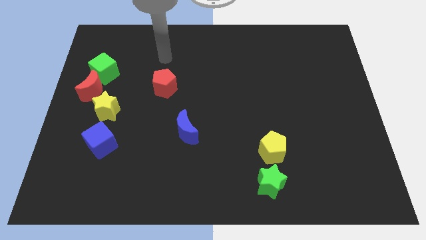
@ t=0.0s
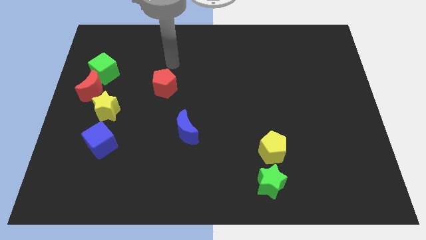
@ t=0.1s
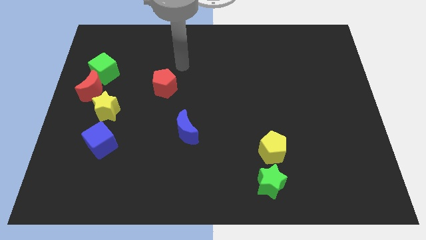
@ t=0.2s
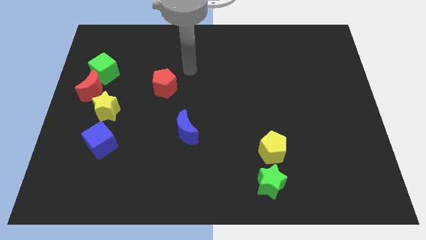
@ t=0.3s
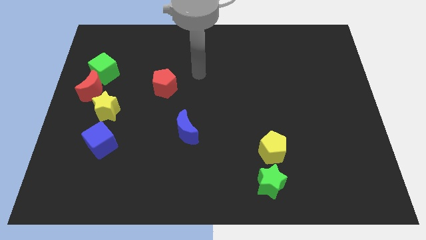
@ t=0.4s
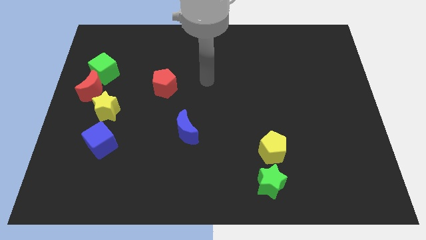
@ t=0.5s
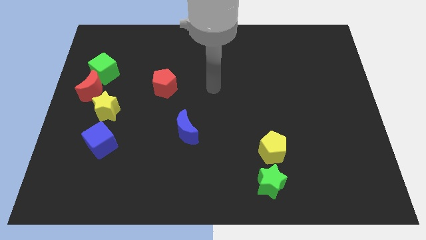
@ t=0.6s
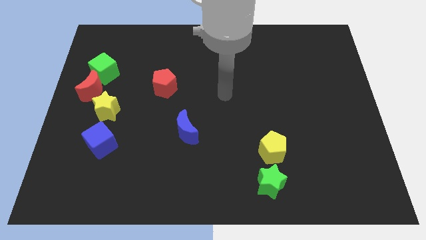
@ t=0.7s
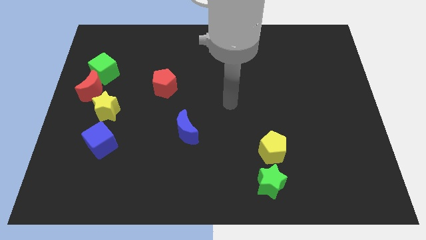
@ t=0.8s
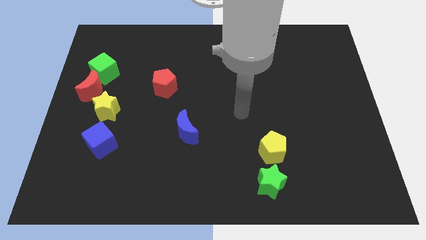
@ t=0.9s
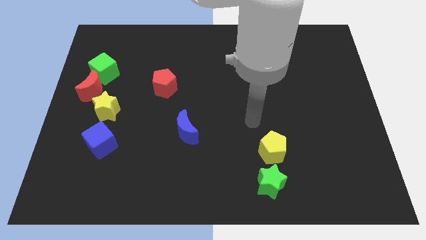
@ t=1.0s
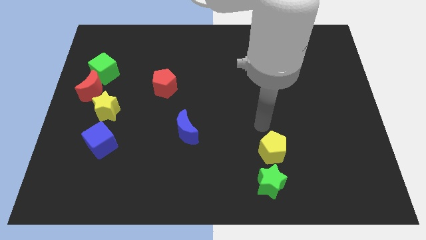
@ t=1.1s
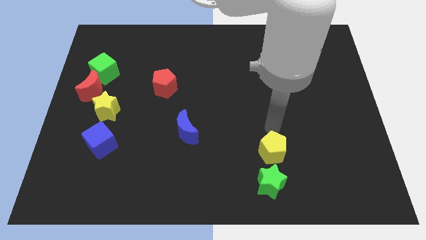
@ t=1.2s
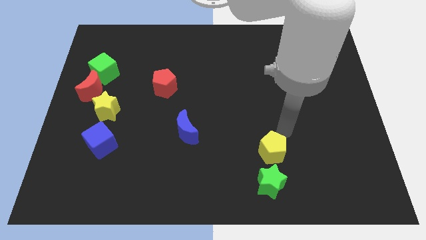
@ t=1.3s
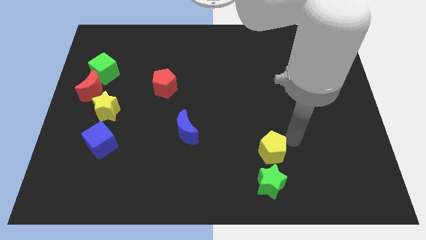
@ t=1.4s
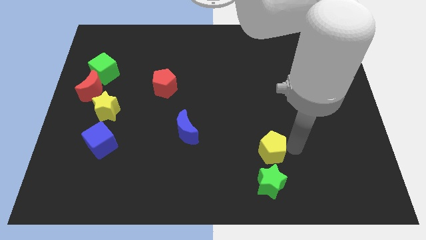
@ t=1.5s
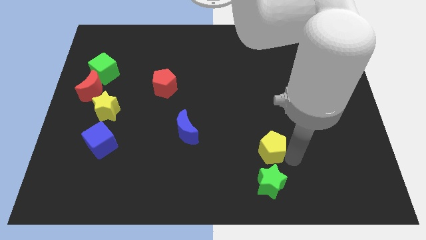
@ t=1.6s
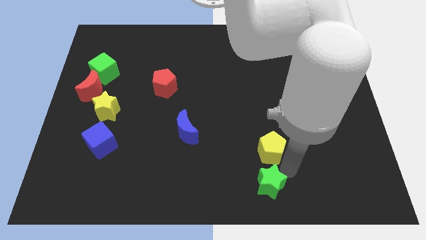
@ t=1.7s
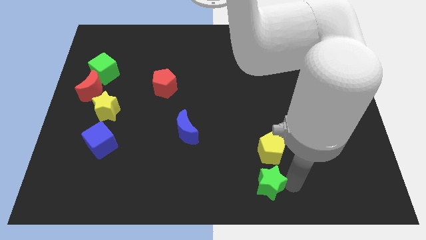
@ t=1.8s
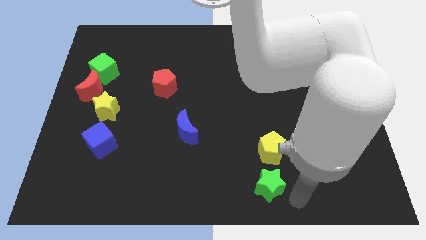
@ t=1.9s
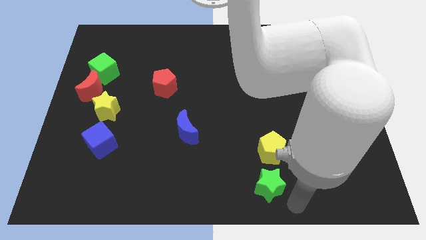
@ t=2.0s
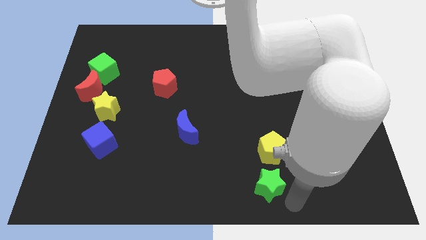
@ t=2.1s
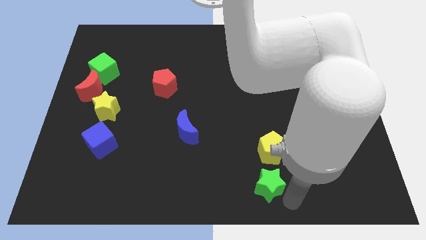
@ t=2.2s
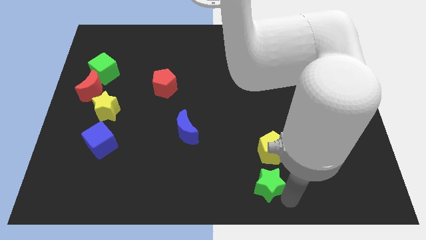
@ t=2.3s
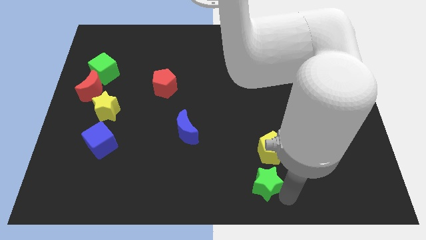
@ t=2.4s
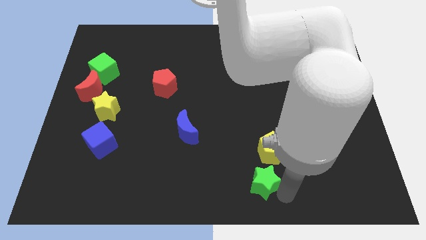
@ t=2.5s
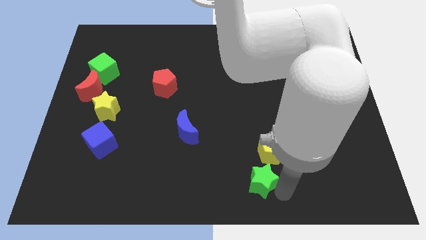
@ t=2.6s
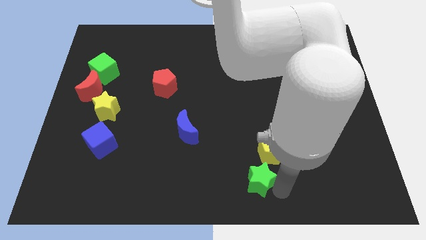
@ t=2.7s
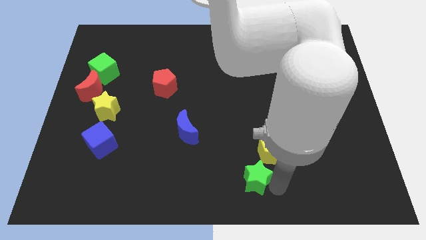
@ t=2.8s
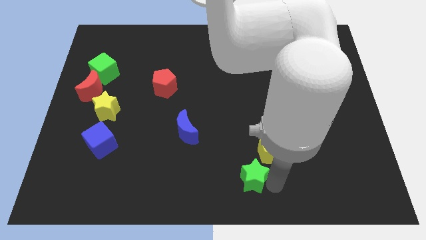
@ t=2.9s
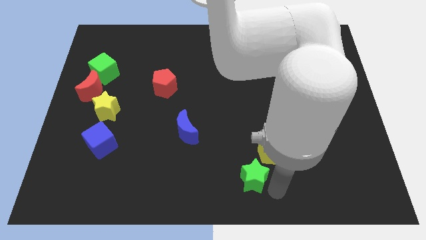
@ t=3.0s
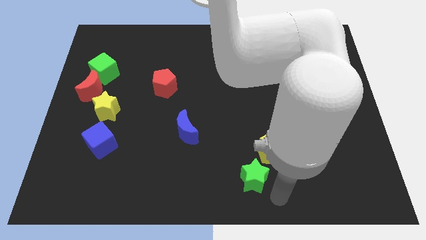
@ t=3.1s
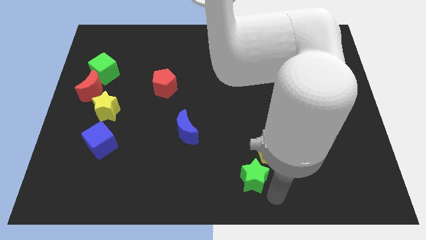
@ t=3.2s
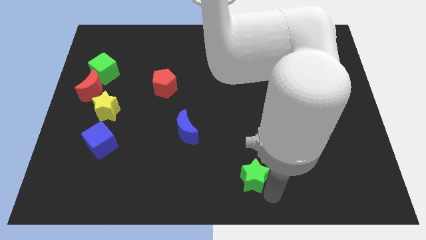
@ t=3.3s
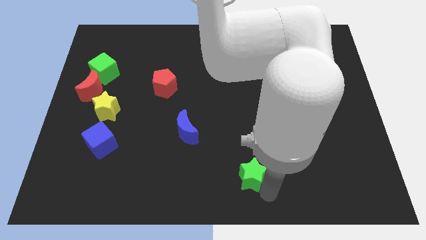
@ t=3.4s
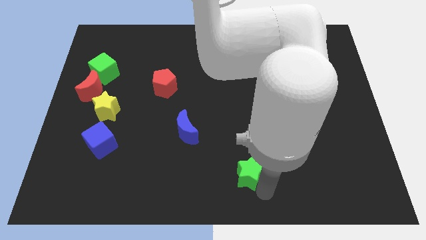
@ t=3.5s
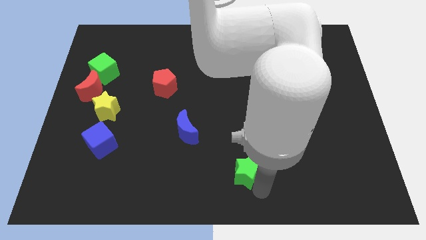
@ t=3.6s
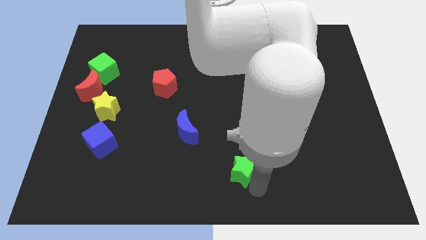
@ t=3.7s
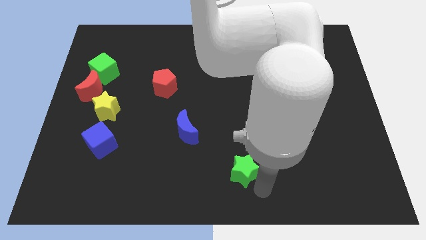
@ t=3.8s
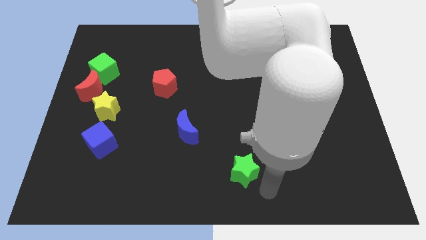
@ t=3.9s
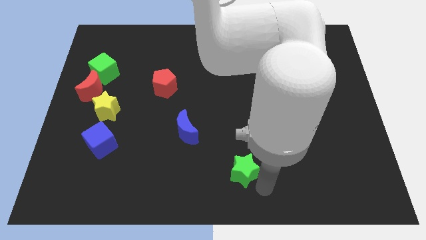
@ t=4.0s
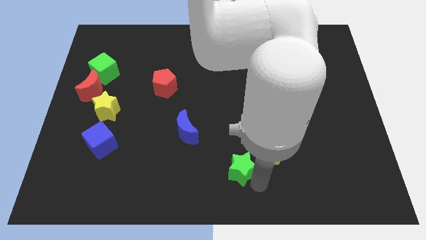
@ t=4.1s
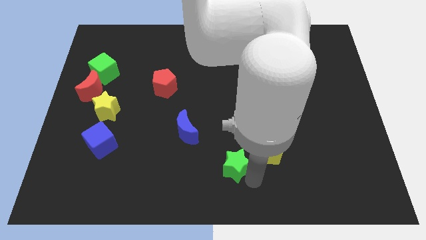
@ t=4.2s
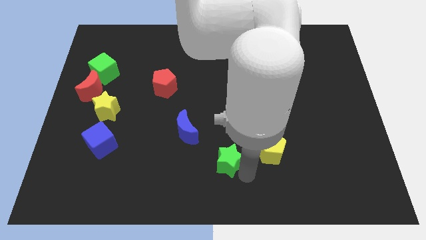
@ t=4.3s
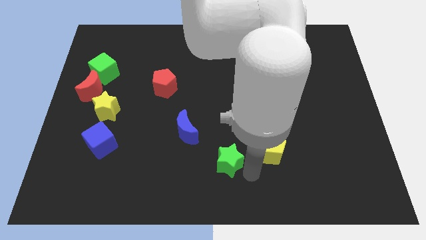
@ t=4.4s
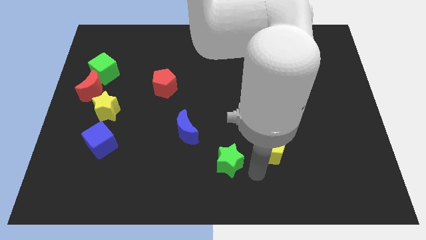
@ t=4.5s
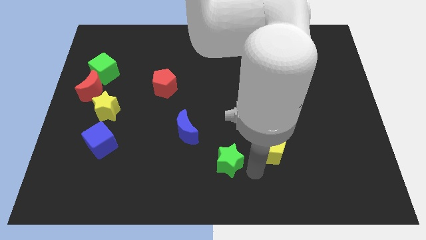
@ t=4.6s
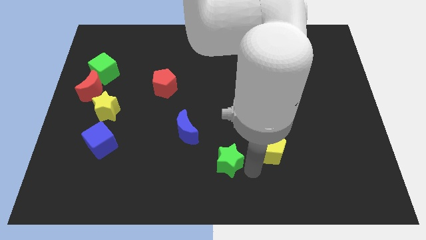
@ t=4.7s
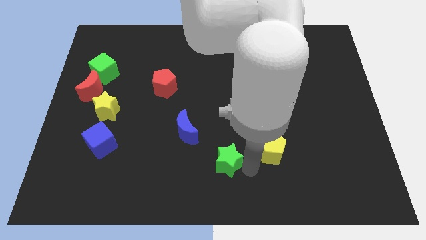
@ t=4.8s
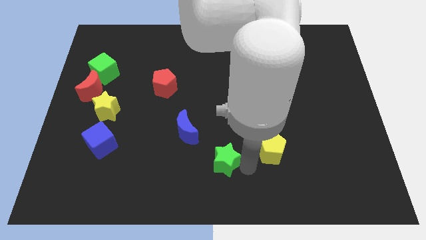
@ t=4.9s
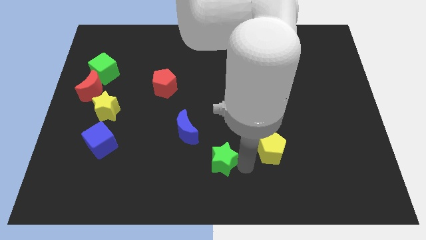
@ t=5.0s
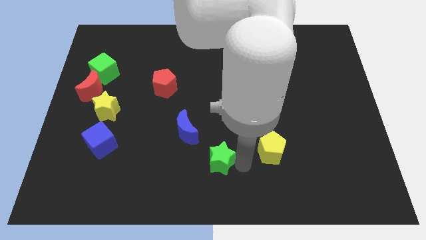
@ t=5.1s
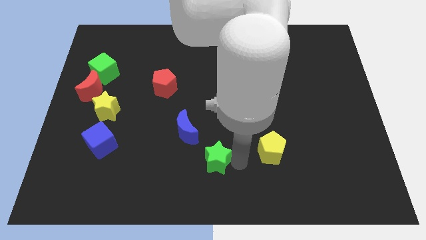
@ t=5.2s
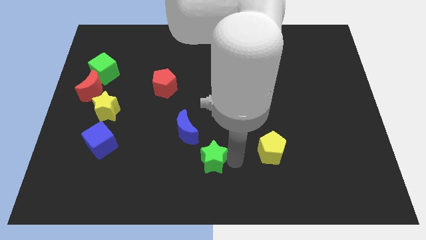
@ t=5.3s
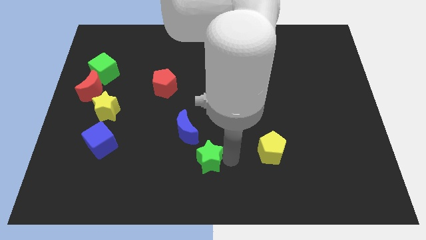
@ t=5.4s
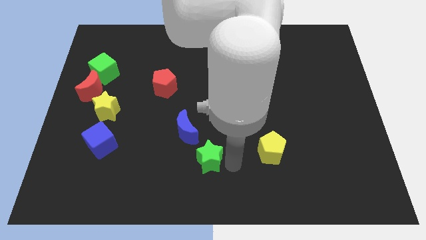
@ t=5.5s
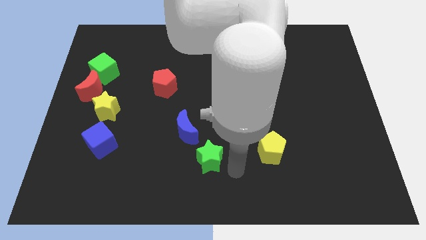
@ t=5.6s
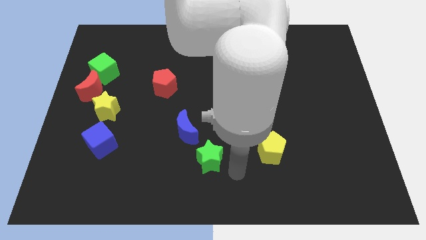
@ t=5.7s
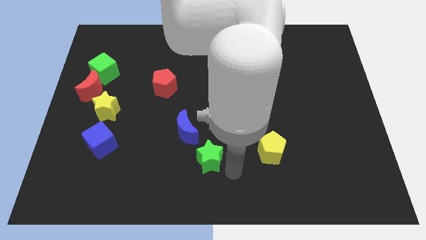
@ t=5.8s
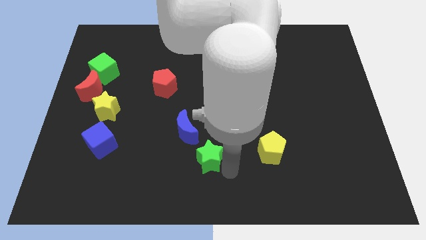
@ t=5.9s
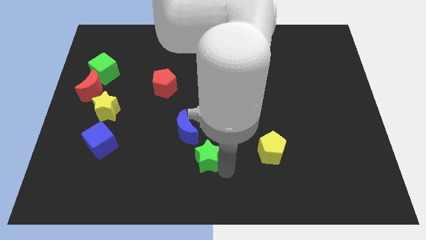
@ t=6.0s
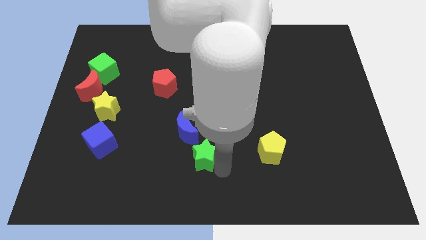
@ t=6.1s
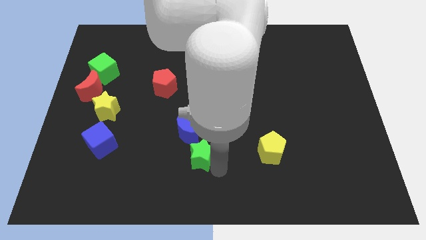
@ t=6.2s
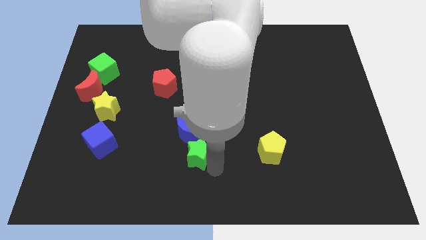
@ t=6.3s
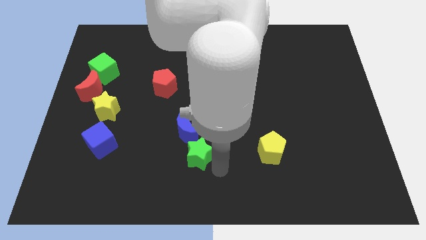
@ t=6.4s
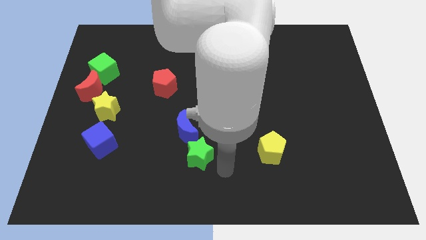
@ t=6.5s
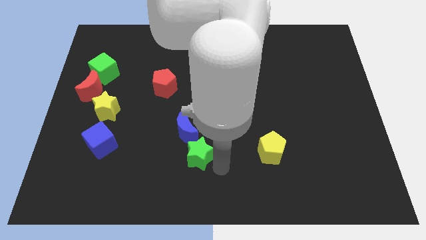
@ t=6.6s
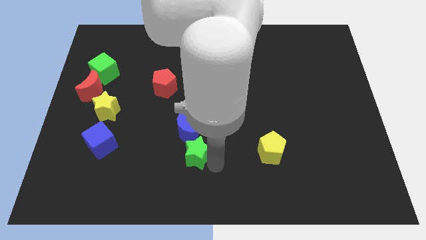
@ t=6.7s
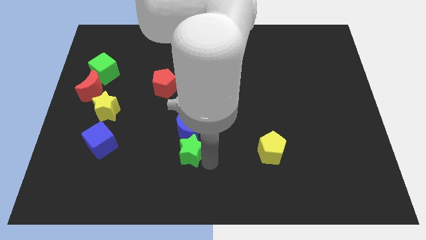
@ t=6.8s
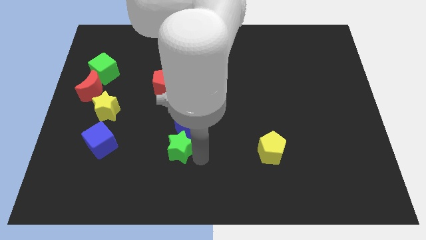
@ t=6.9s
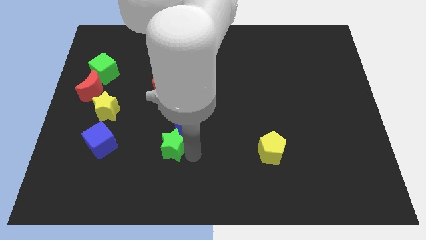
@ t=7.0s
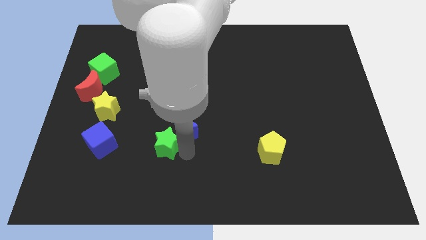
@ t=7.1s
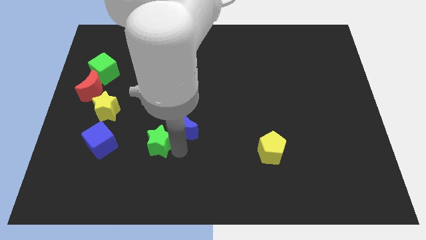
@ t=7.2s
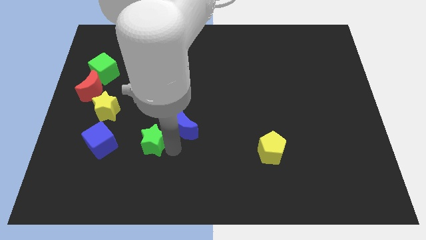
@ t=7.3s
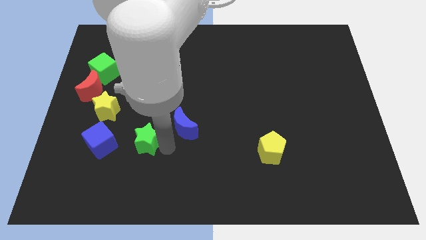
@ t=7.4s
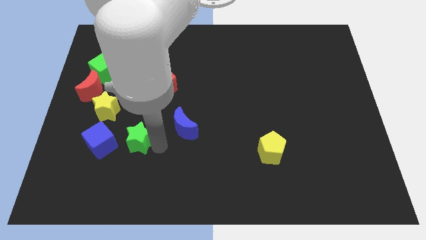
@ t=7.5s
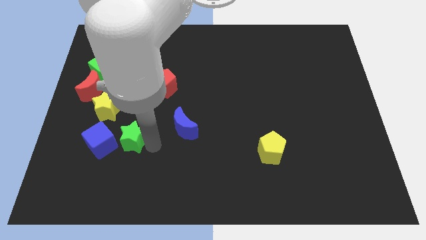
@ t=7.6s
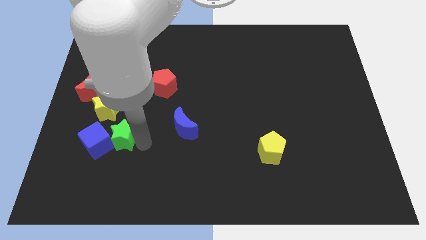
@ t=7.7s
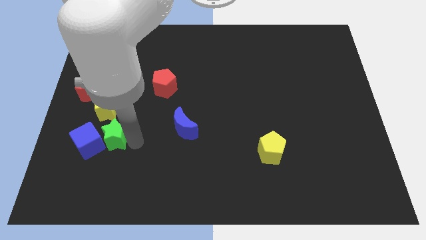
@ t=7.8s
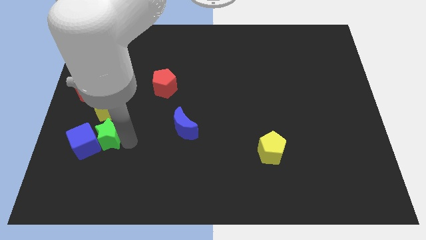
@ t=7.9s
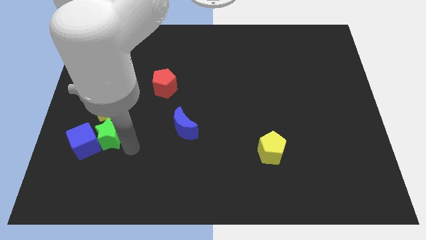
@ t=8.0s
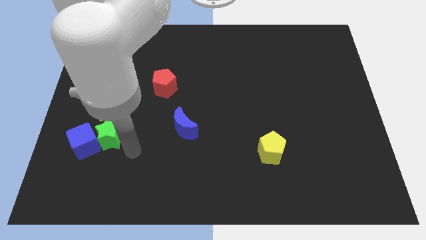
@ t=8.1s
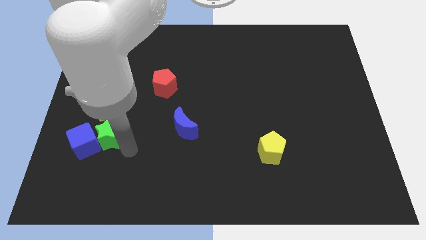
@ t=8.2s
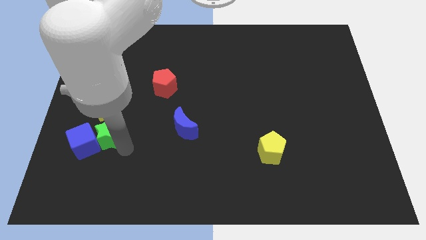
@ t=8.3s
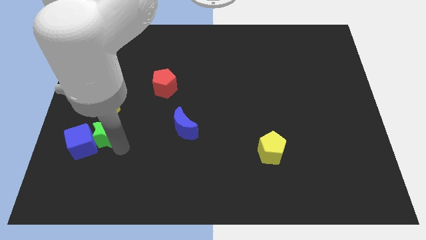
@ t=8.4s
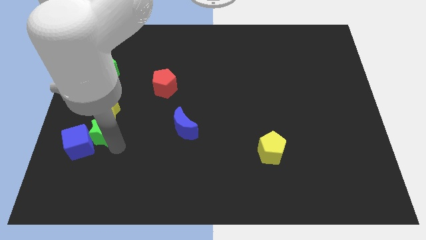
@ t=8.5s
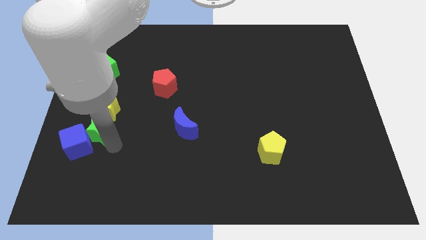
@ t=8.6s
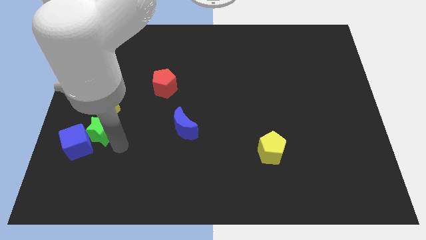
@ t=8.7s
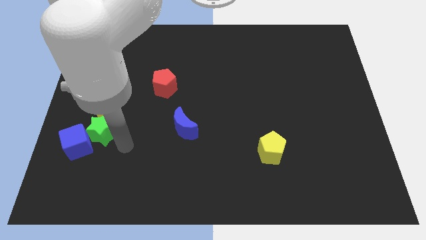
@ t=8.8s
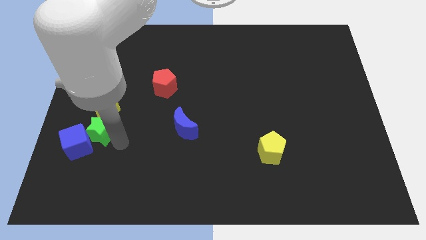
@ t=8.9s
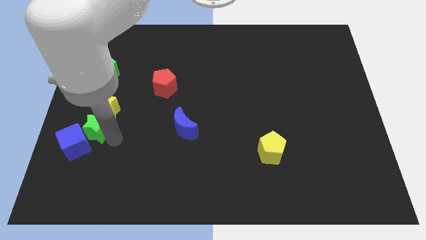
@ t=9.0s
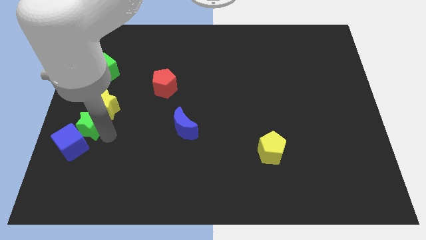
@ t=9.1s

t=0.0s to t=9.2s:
put the green star to the left side of the board
